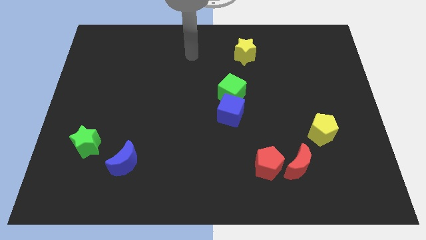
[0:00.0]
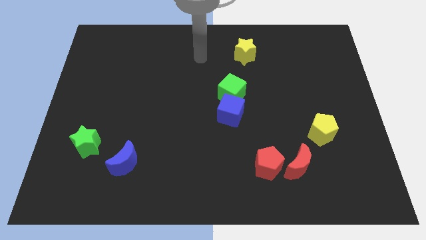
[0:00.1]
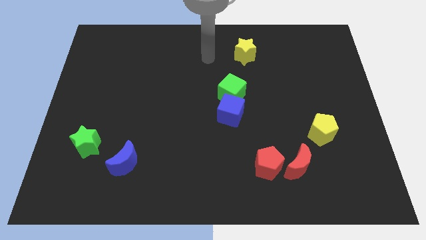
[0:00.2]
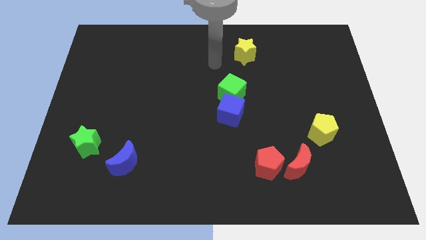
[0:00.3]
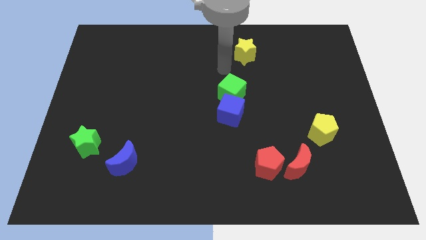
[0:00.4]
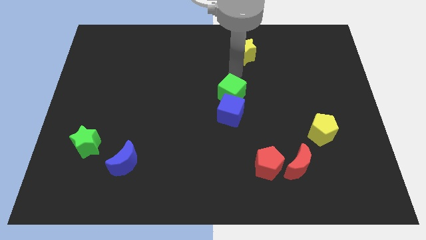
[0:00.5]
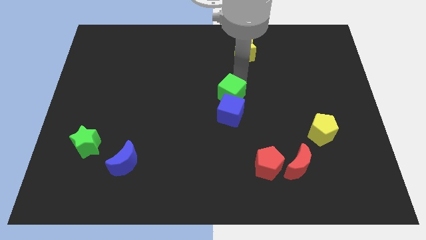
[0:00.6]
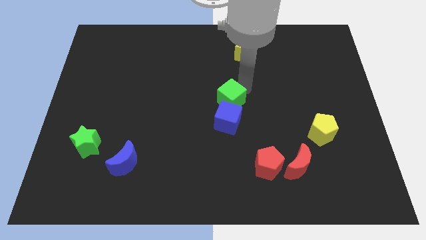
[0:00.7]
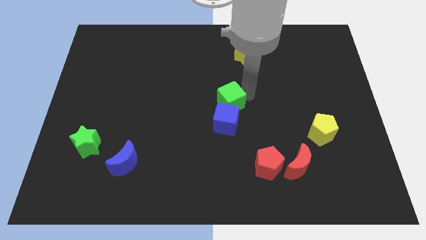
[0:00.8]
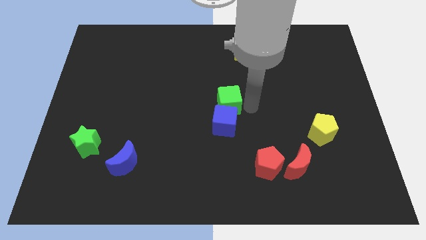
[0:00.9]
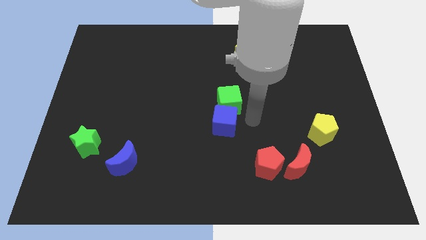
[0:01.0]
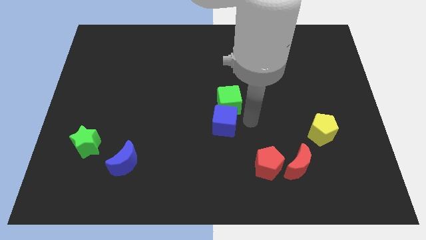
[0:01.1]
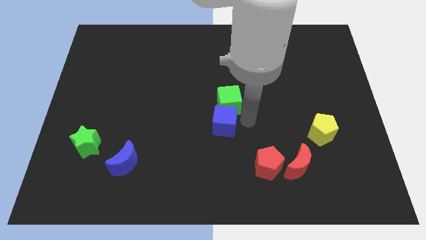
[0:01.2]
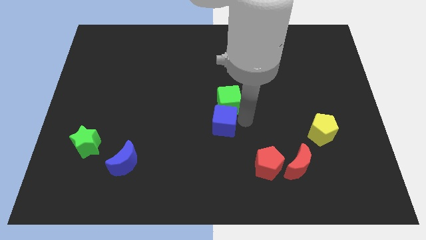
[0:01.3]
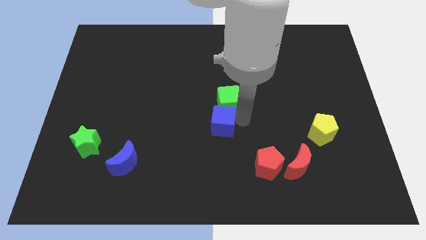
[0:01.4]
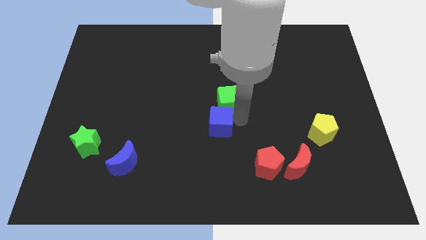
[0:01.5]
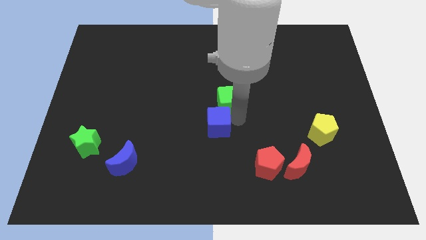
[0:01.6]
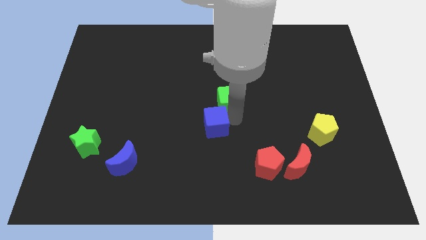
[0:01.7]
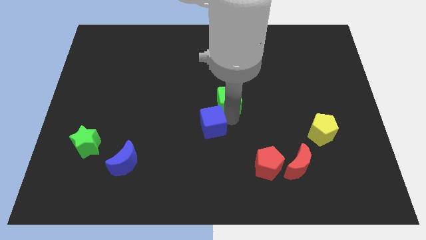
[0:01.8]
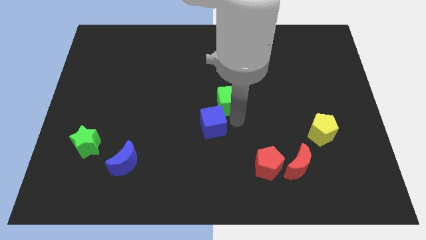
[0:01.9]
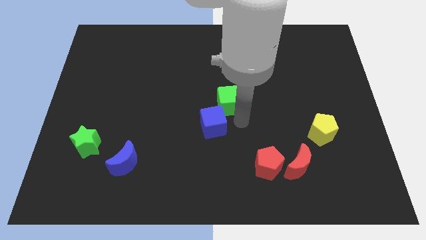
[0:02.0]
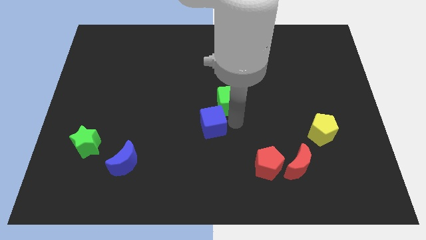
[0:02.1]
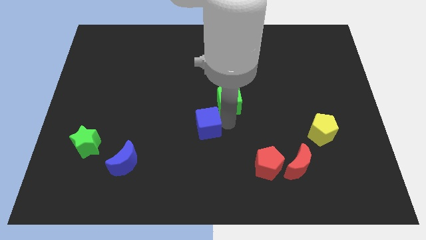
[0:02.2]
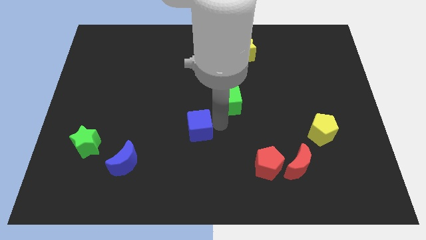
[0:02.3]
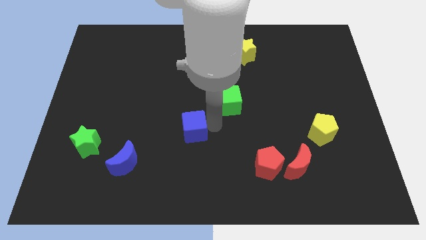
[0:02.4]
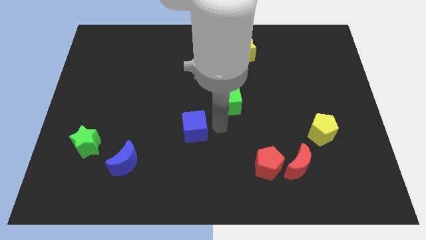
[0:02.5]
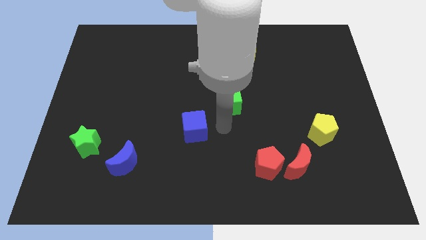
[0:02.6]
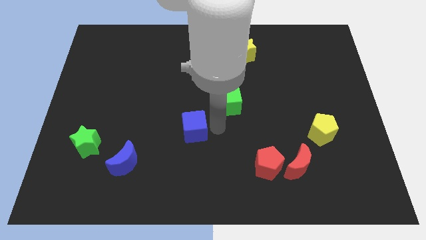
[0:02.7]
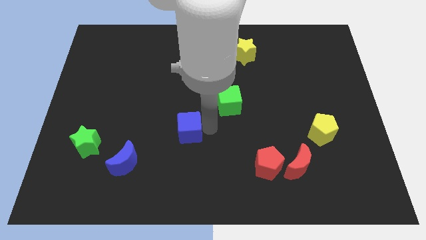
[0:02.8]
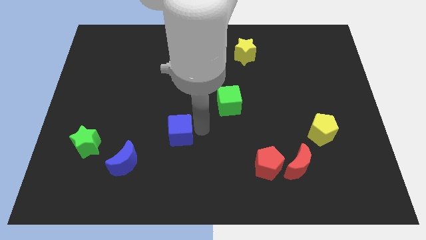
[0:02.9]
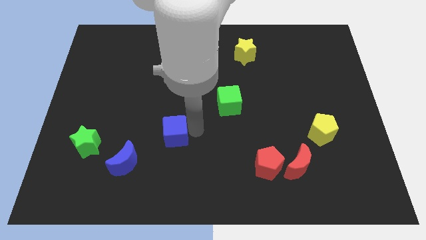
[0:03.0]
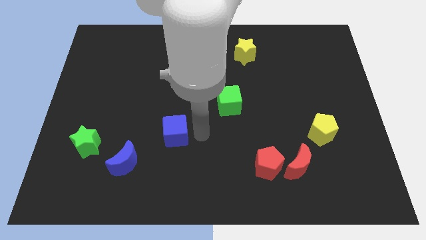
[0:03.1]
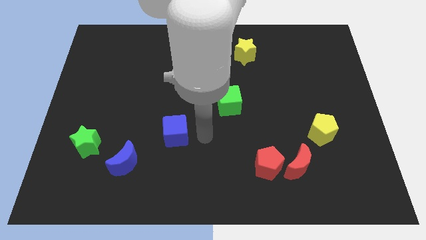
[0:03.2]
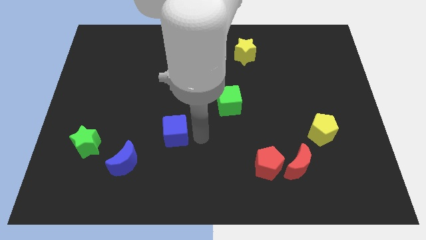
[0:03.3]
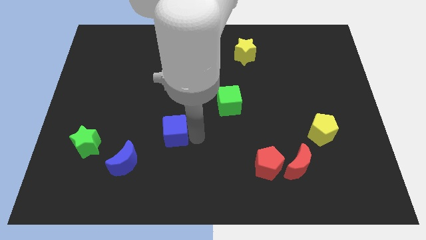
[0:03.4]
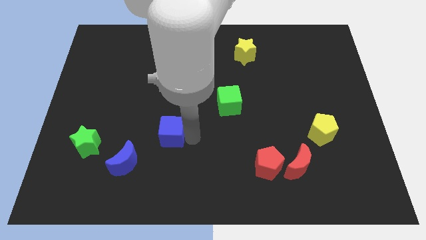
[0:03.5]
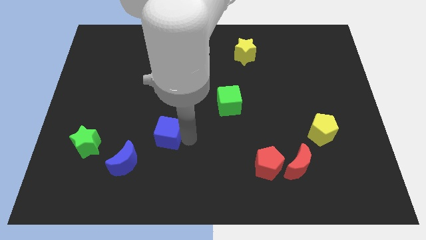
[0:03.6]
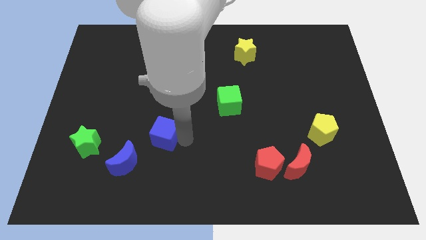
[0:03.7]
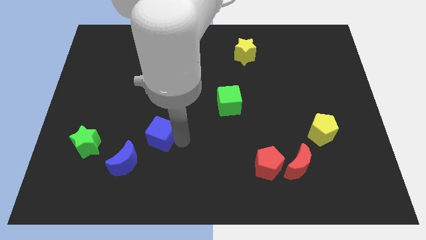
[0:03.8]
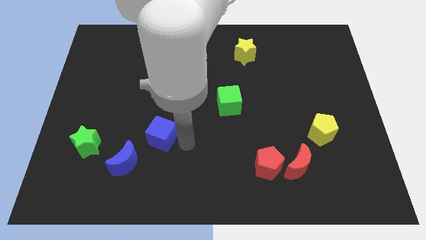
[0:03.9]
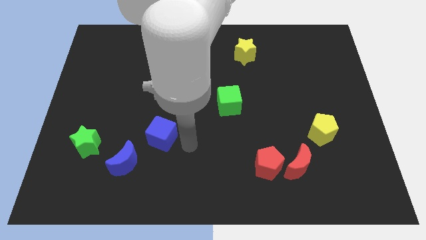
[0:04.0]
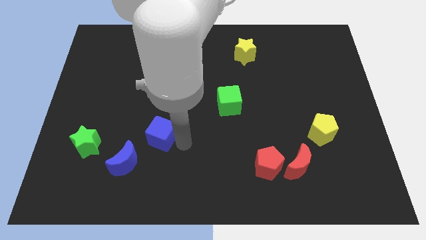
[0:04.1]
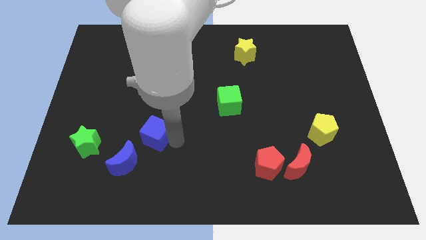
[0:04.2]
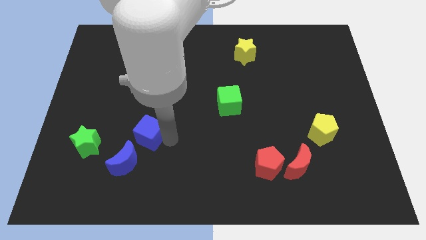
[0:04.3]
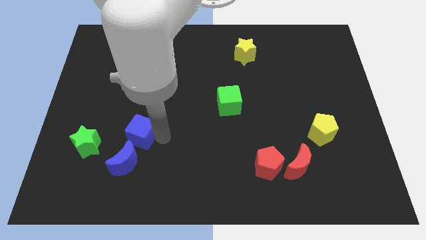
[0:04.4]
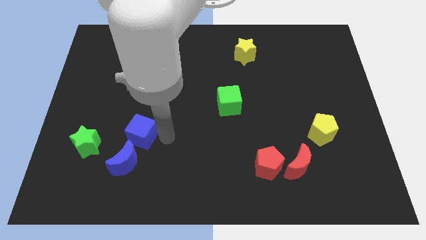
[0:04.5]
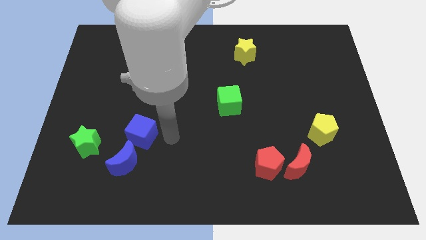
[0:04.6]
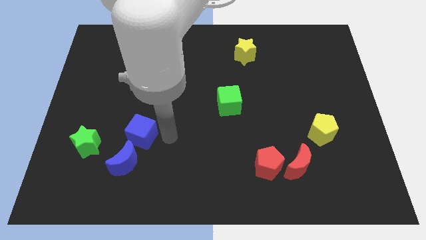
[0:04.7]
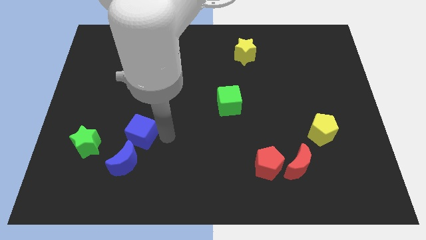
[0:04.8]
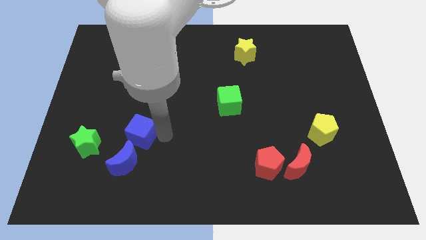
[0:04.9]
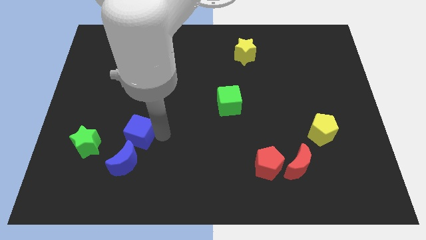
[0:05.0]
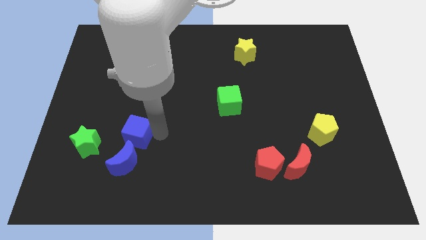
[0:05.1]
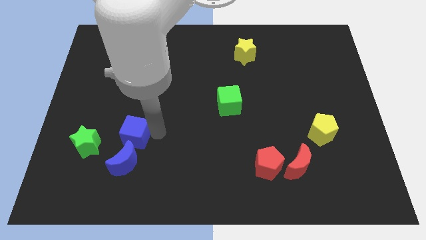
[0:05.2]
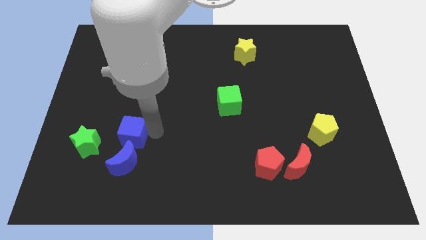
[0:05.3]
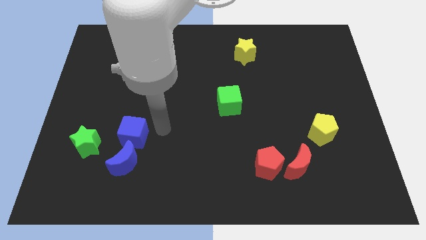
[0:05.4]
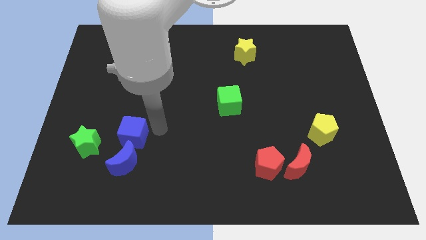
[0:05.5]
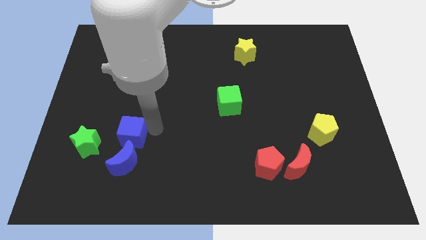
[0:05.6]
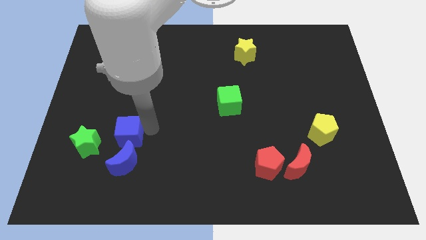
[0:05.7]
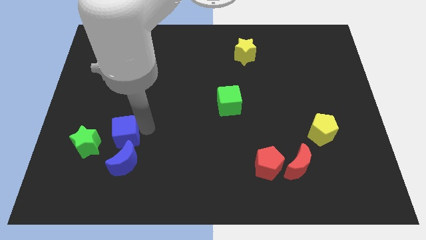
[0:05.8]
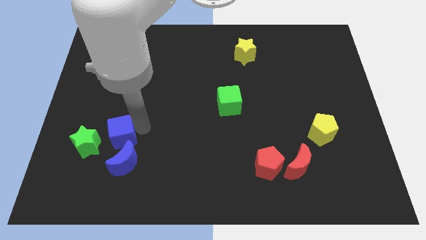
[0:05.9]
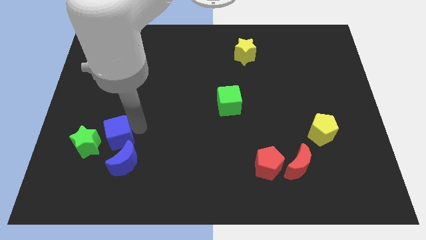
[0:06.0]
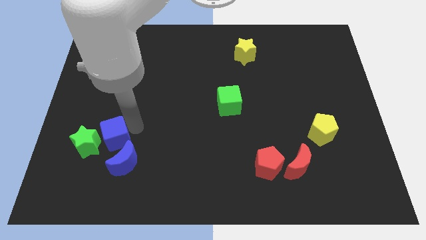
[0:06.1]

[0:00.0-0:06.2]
slide the blue cube to the green star
